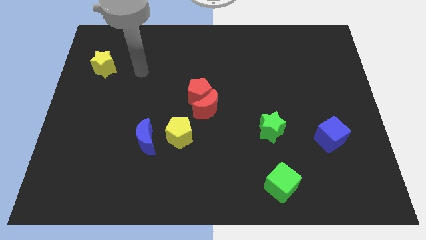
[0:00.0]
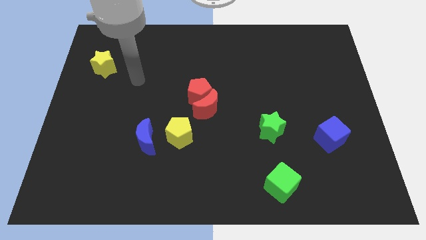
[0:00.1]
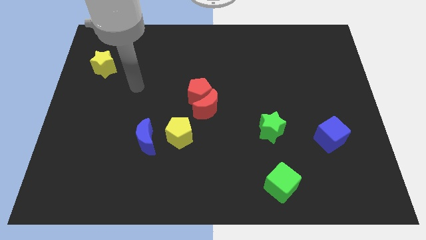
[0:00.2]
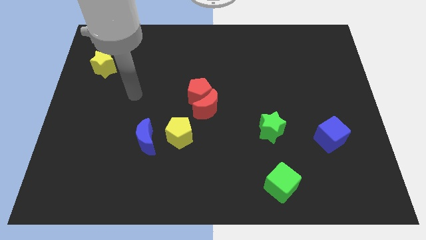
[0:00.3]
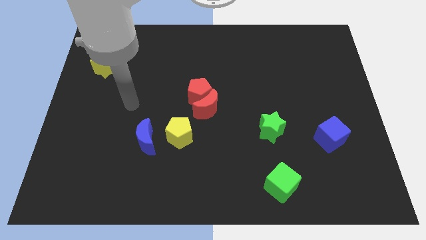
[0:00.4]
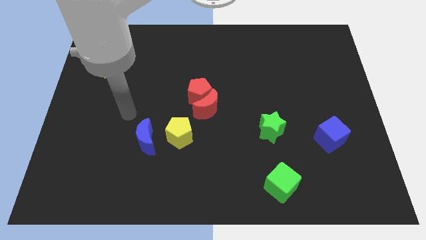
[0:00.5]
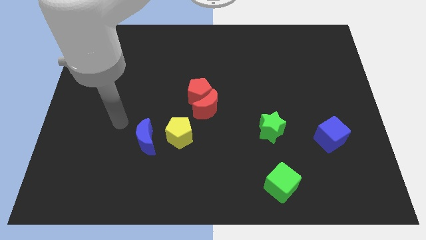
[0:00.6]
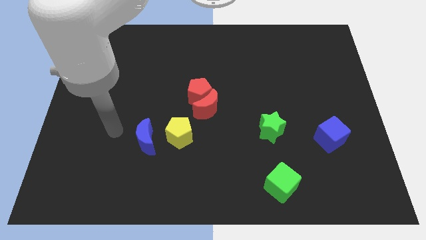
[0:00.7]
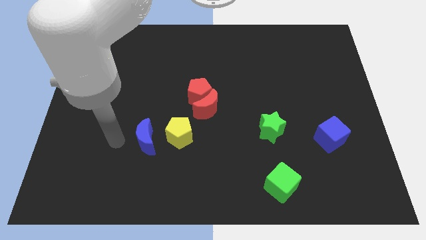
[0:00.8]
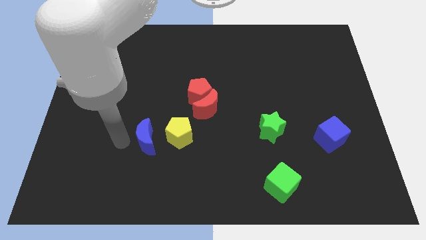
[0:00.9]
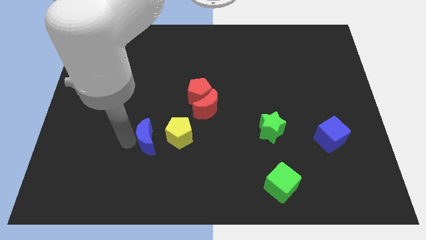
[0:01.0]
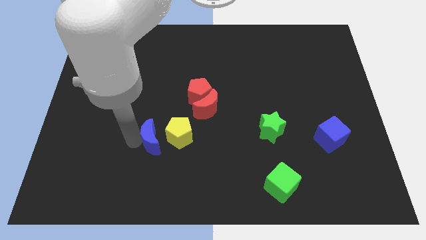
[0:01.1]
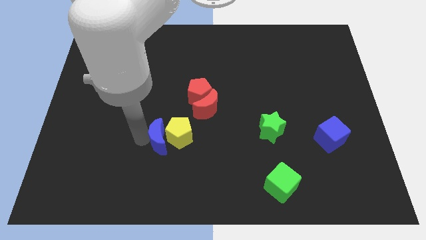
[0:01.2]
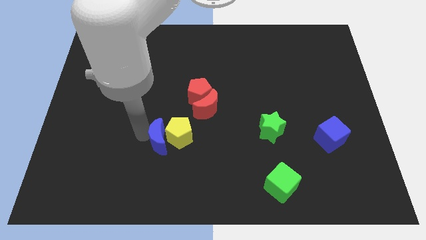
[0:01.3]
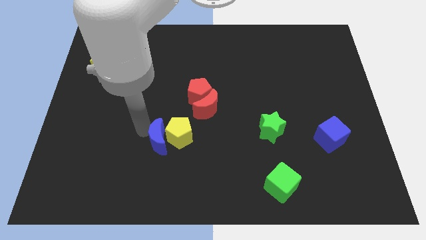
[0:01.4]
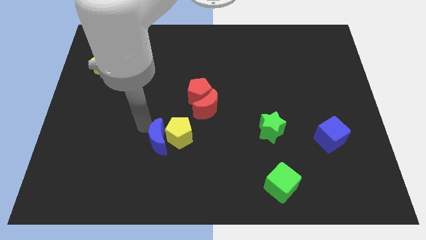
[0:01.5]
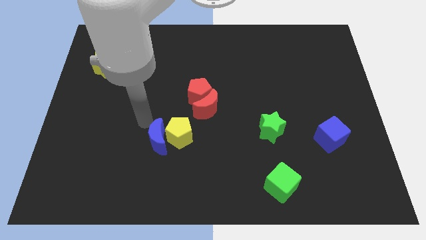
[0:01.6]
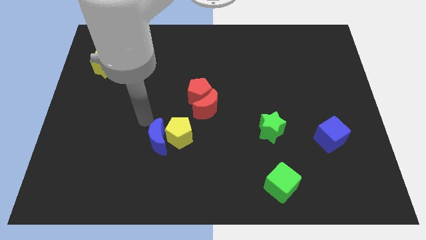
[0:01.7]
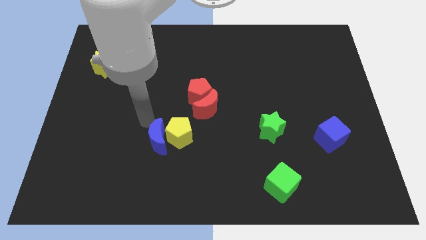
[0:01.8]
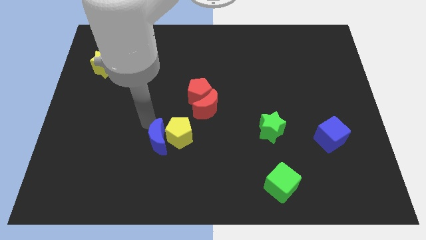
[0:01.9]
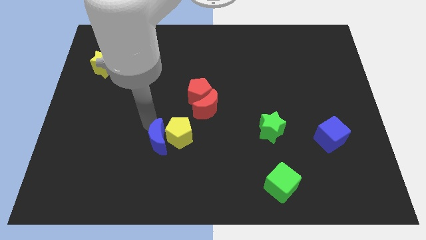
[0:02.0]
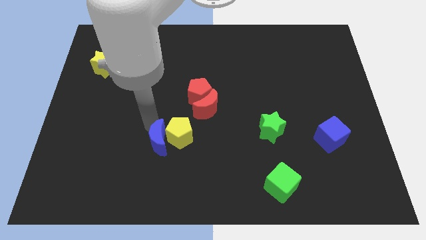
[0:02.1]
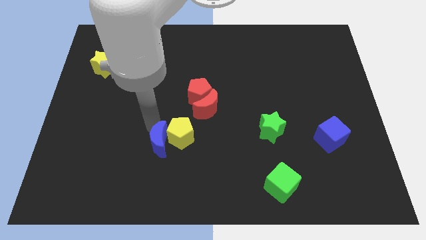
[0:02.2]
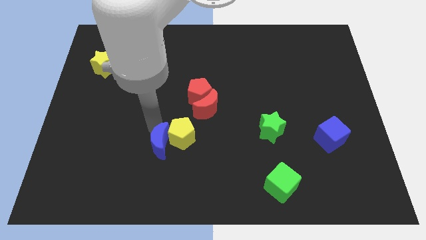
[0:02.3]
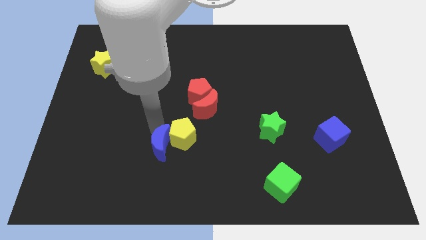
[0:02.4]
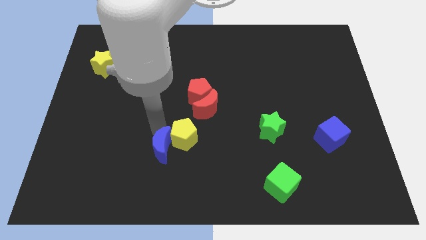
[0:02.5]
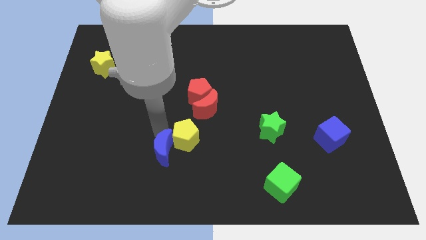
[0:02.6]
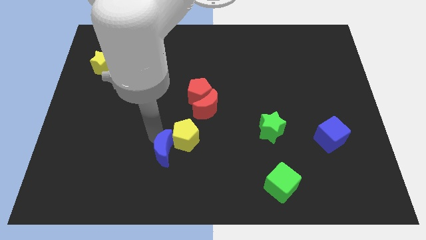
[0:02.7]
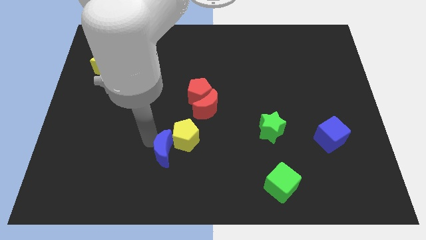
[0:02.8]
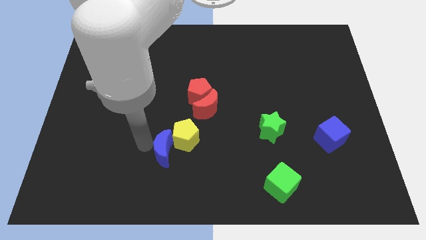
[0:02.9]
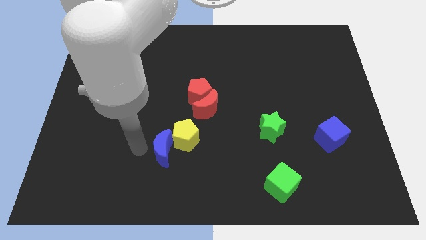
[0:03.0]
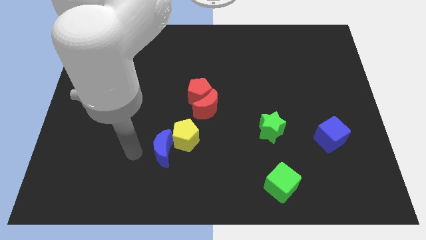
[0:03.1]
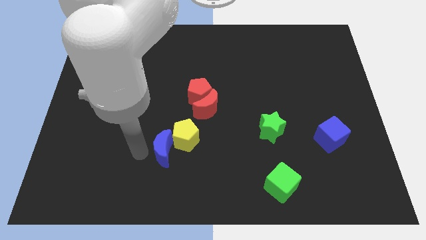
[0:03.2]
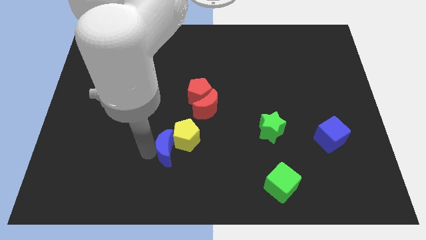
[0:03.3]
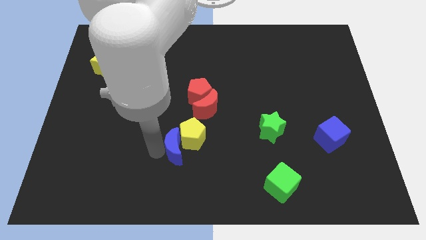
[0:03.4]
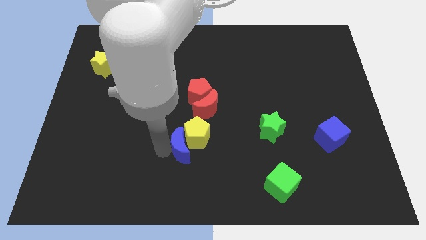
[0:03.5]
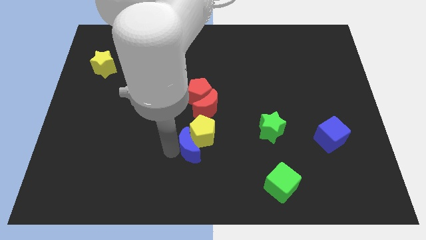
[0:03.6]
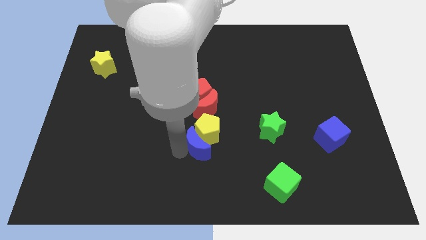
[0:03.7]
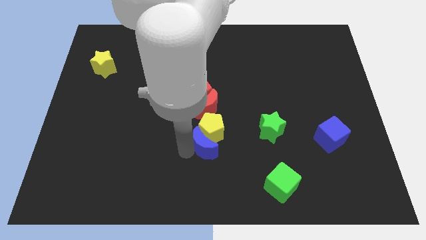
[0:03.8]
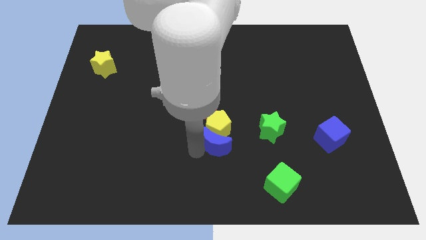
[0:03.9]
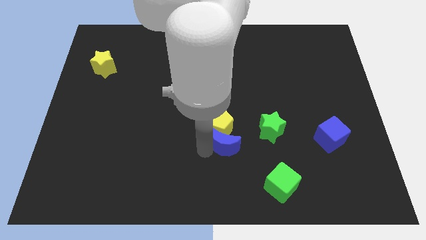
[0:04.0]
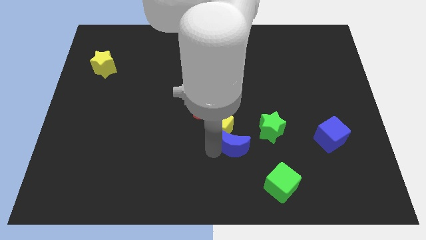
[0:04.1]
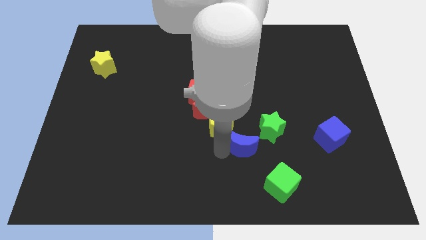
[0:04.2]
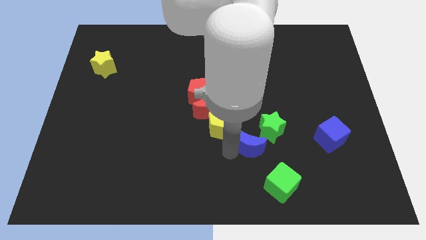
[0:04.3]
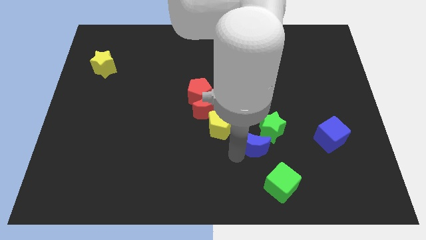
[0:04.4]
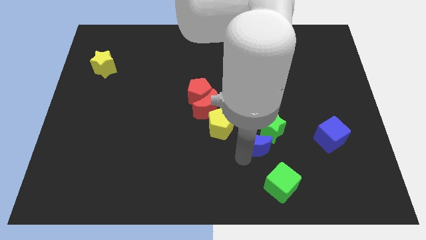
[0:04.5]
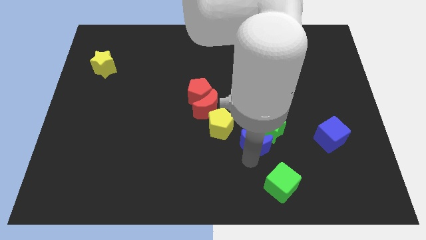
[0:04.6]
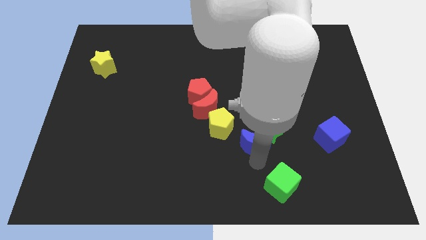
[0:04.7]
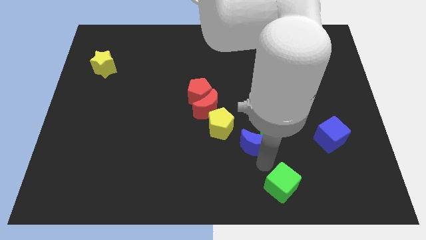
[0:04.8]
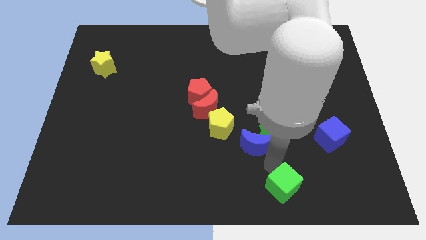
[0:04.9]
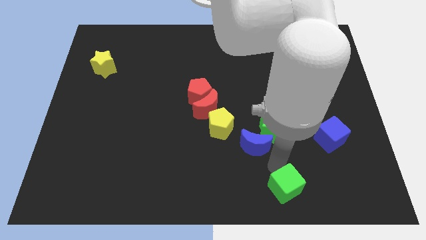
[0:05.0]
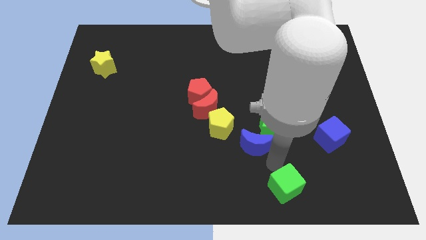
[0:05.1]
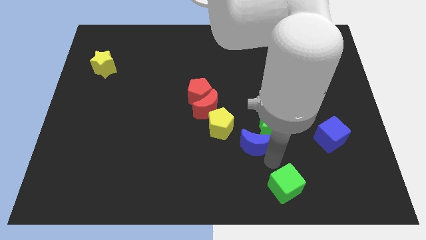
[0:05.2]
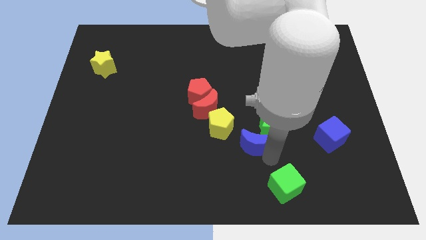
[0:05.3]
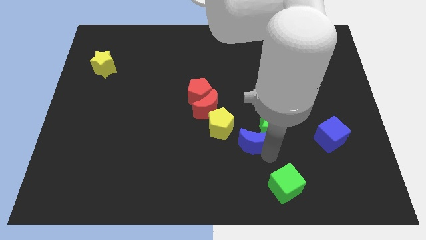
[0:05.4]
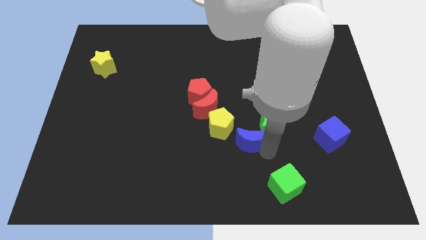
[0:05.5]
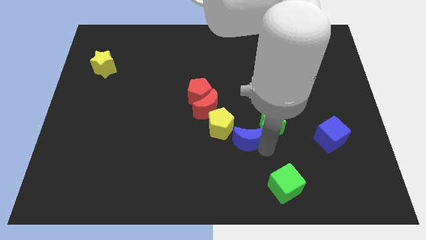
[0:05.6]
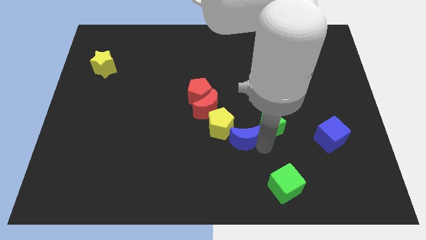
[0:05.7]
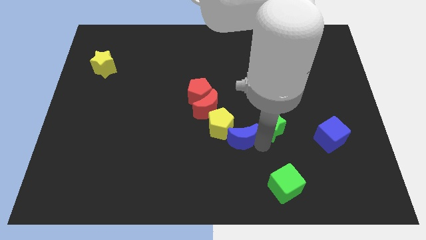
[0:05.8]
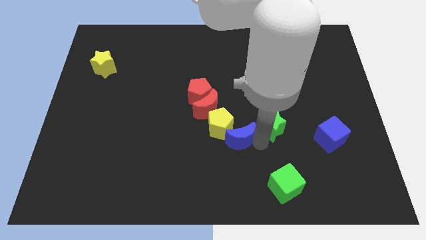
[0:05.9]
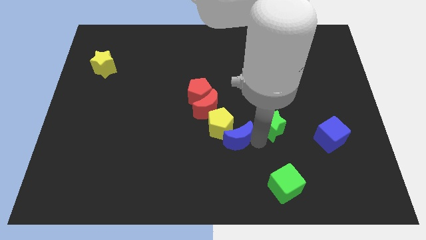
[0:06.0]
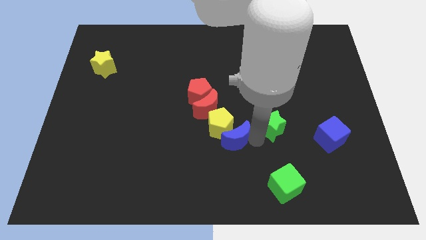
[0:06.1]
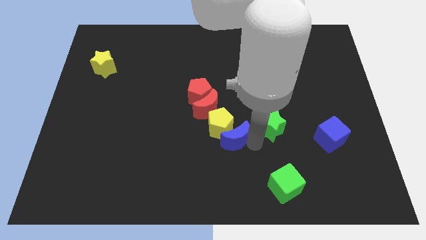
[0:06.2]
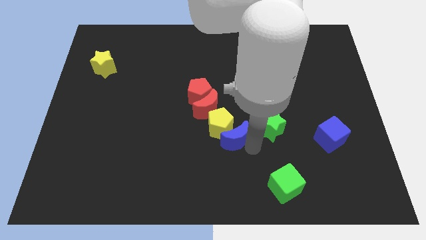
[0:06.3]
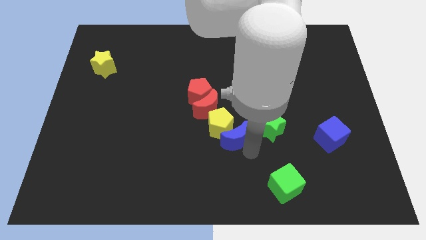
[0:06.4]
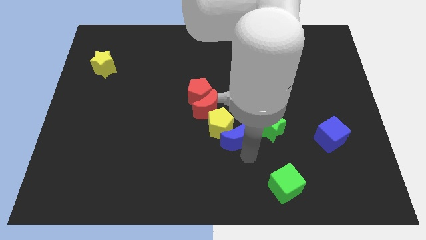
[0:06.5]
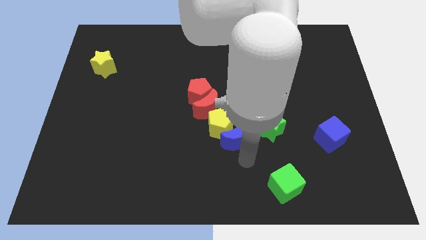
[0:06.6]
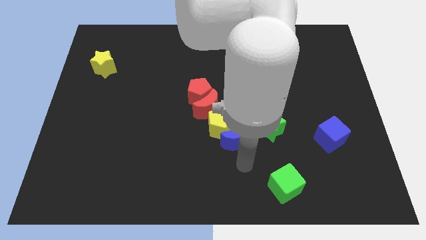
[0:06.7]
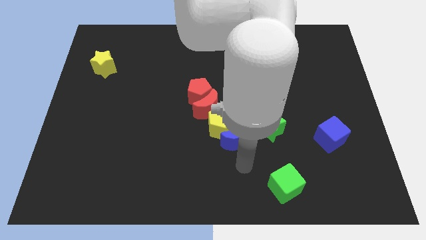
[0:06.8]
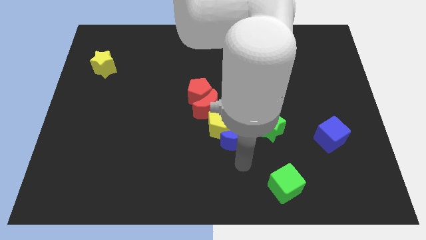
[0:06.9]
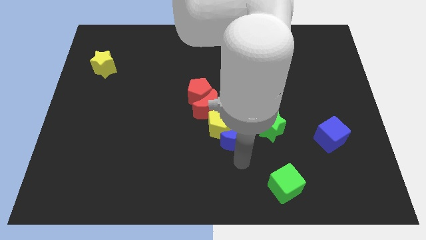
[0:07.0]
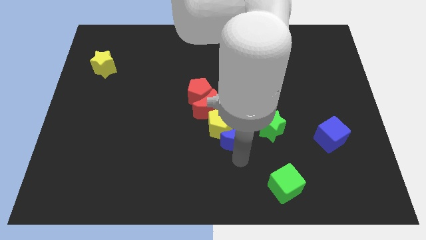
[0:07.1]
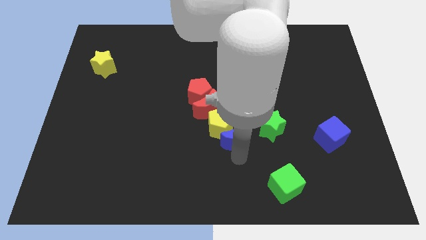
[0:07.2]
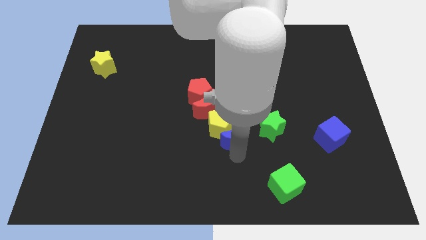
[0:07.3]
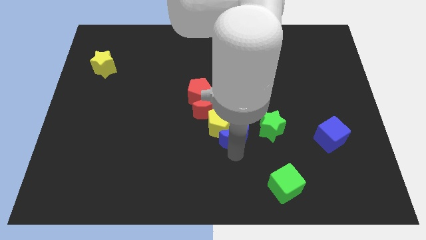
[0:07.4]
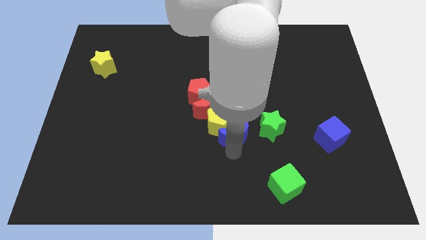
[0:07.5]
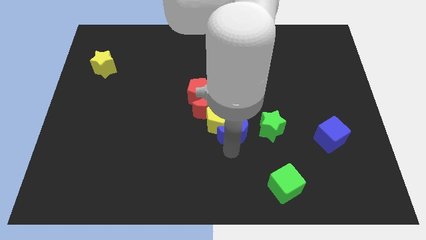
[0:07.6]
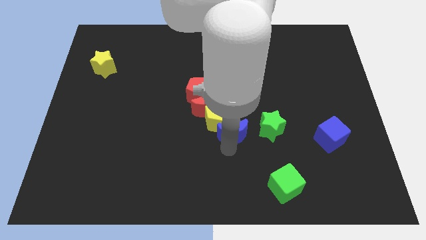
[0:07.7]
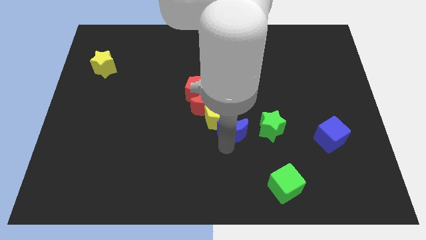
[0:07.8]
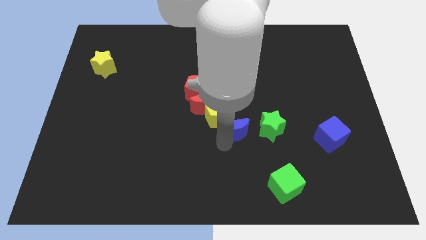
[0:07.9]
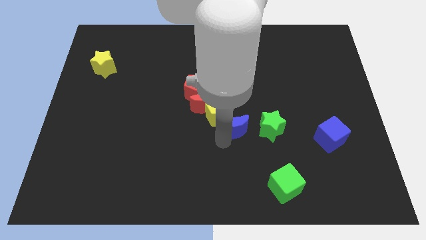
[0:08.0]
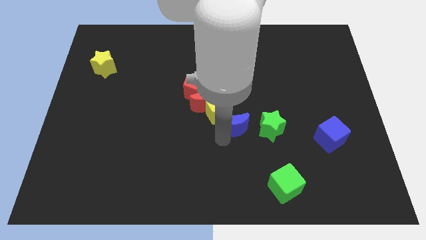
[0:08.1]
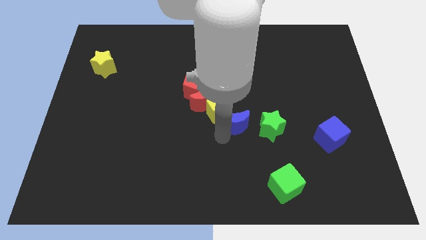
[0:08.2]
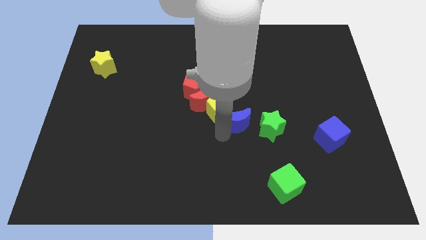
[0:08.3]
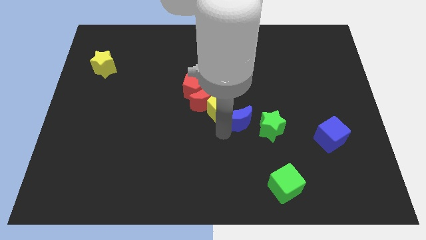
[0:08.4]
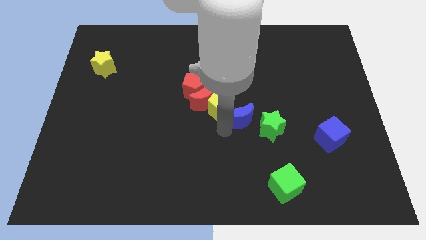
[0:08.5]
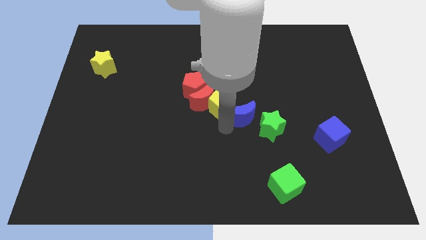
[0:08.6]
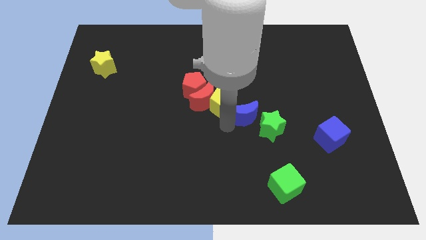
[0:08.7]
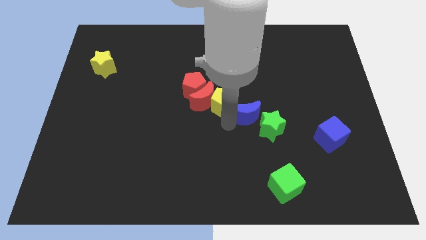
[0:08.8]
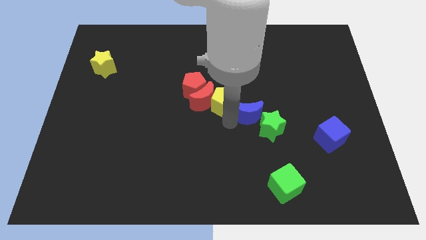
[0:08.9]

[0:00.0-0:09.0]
put the blue moon above the green star
